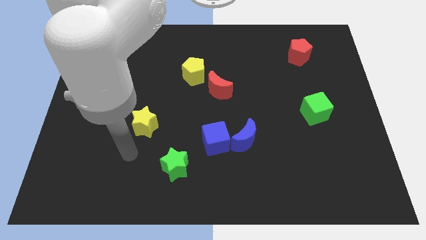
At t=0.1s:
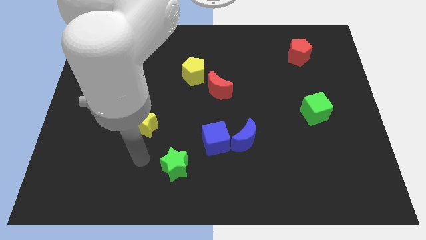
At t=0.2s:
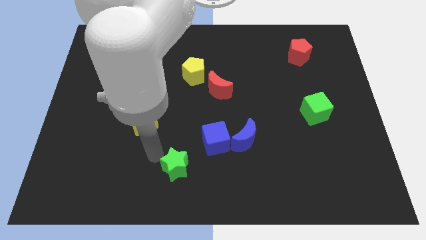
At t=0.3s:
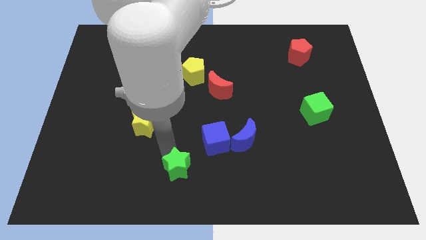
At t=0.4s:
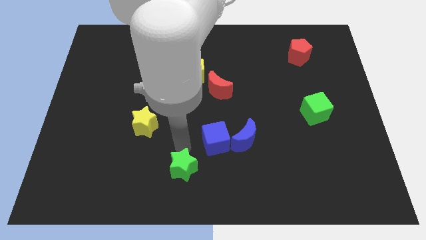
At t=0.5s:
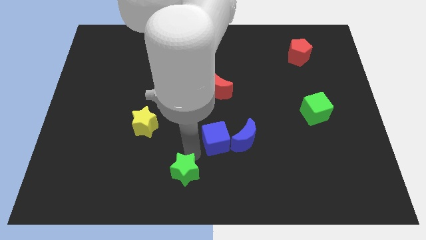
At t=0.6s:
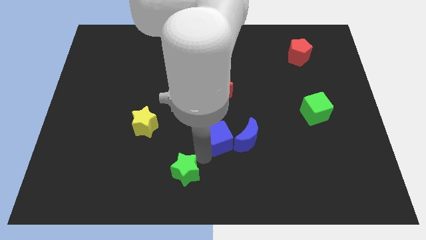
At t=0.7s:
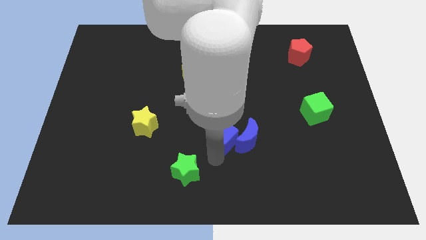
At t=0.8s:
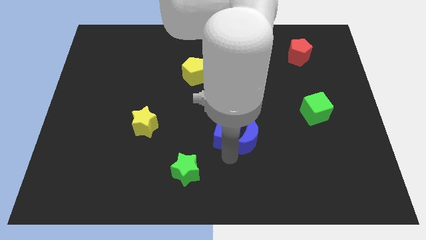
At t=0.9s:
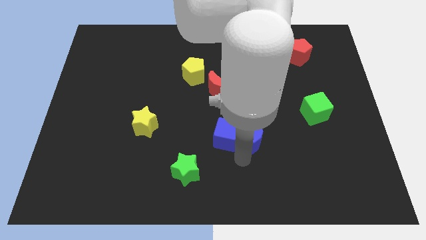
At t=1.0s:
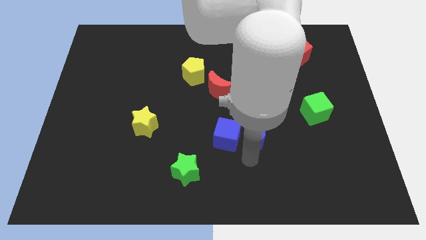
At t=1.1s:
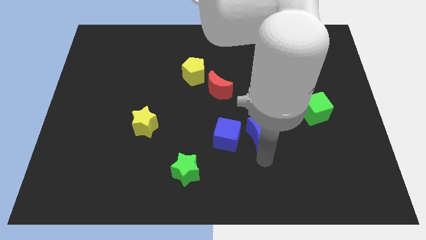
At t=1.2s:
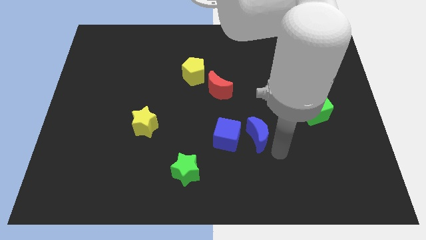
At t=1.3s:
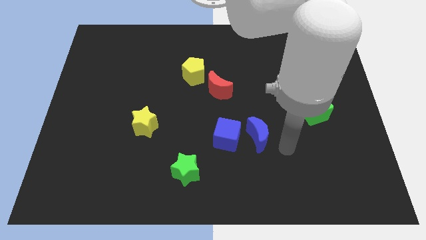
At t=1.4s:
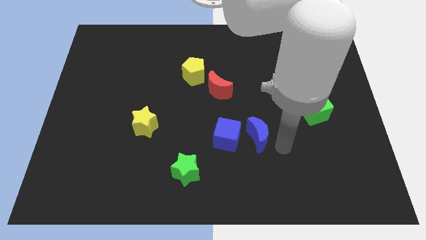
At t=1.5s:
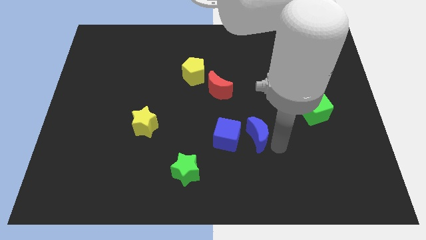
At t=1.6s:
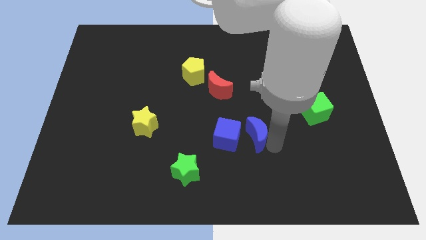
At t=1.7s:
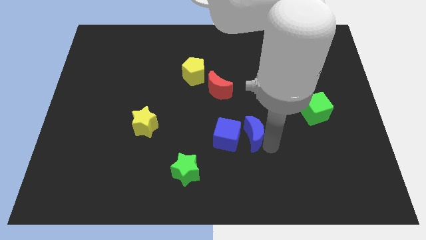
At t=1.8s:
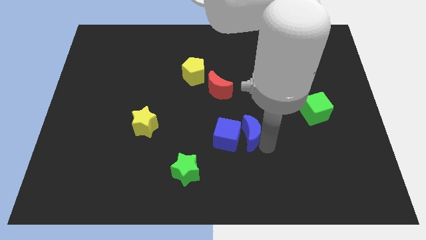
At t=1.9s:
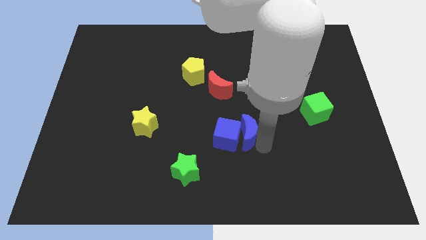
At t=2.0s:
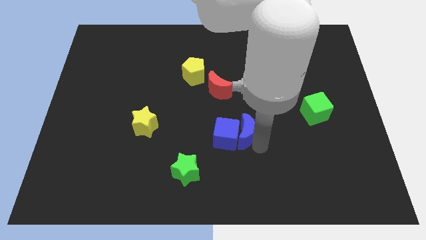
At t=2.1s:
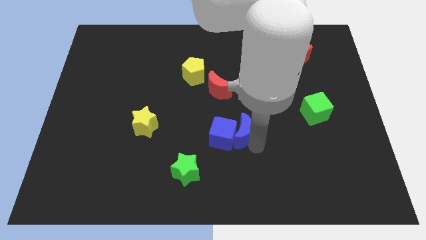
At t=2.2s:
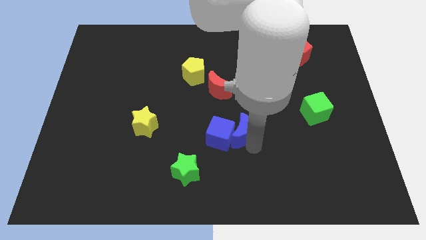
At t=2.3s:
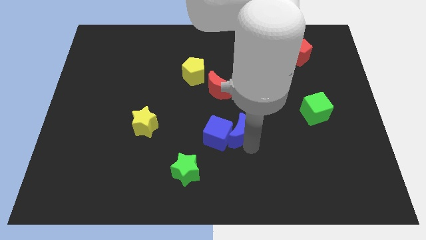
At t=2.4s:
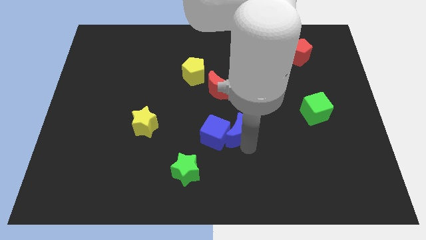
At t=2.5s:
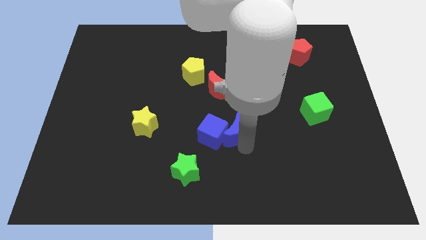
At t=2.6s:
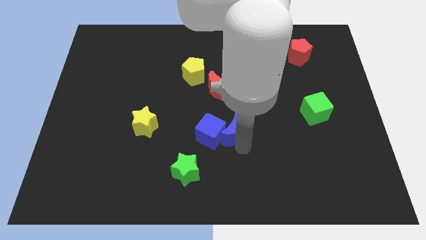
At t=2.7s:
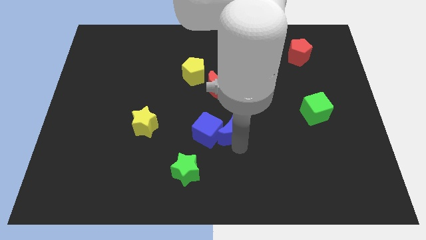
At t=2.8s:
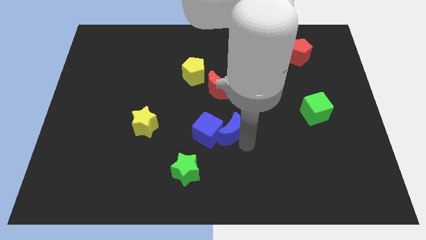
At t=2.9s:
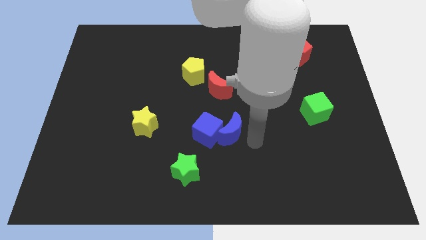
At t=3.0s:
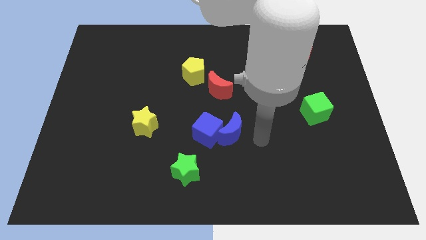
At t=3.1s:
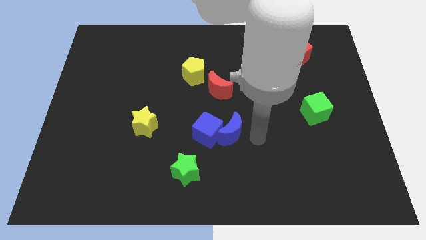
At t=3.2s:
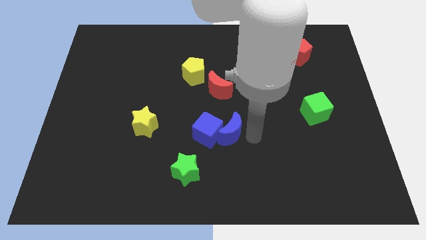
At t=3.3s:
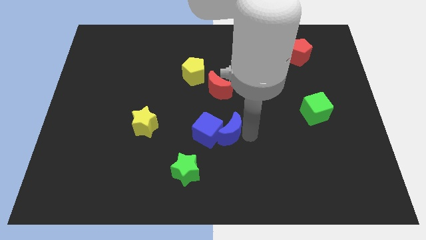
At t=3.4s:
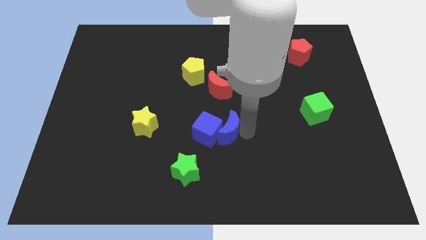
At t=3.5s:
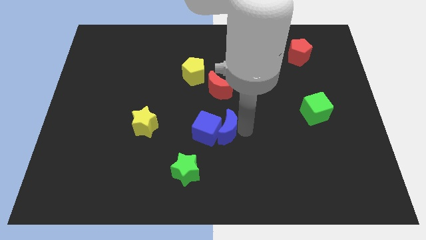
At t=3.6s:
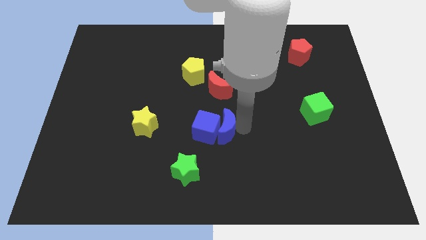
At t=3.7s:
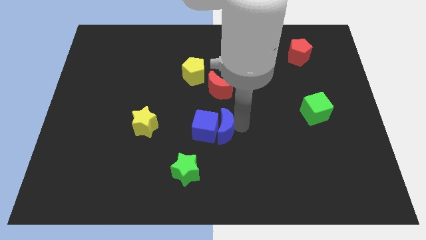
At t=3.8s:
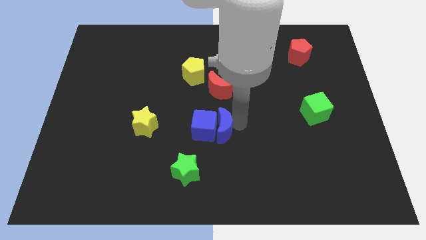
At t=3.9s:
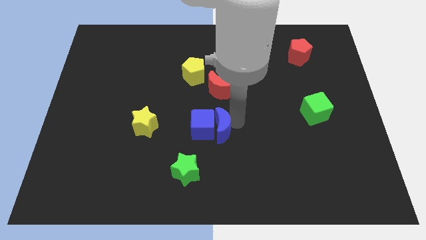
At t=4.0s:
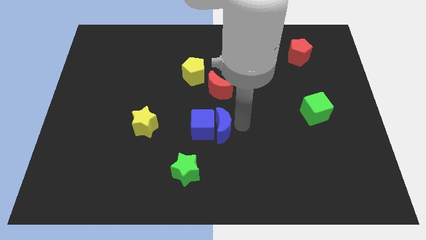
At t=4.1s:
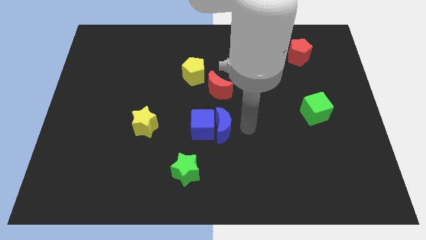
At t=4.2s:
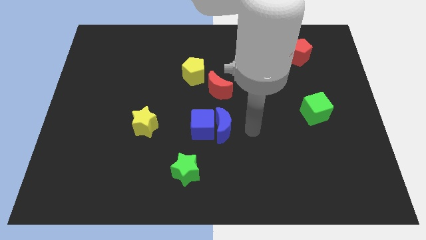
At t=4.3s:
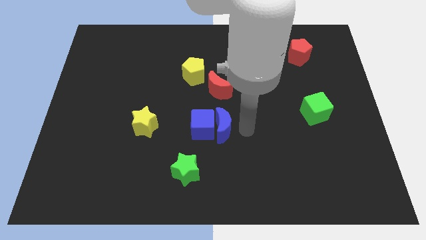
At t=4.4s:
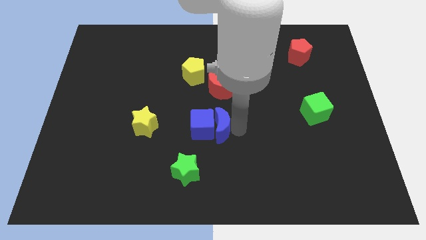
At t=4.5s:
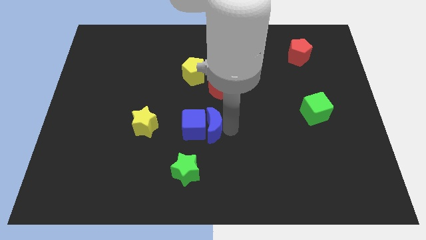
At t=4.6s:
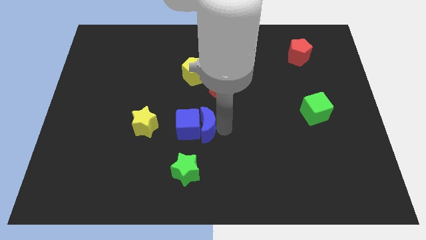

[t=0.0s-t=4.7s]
slightly push the blue moon left

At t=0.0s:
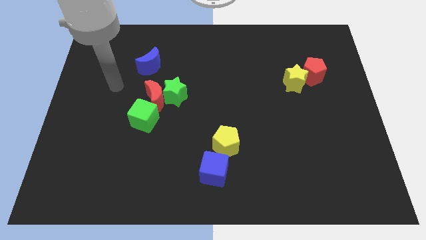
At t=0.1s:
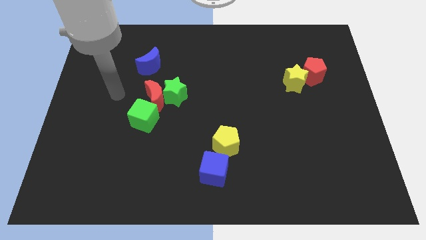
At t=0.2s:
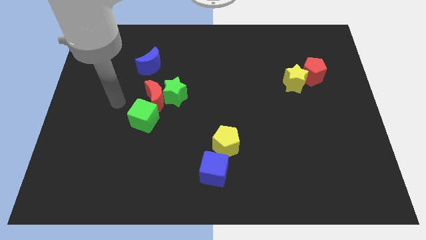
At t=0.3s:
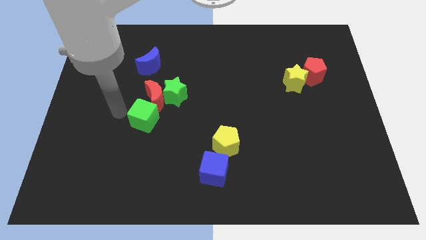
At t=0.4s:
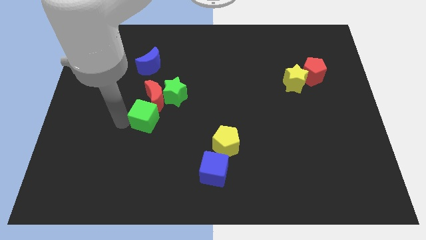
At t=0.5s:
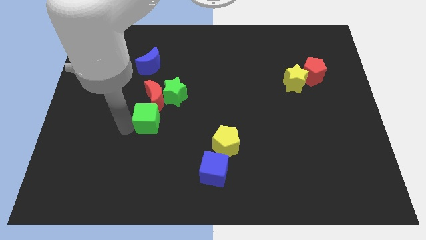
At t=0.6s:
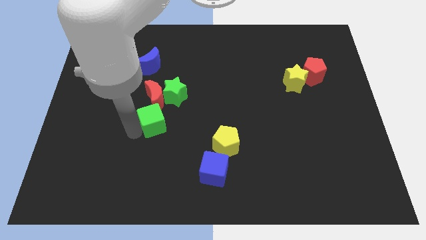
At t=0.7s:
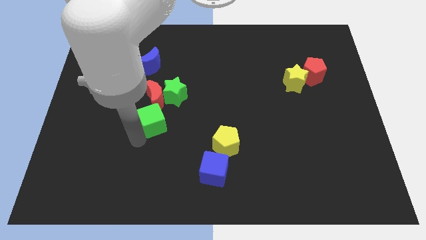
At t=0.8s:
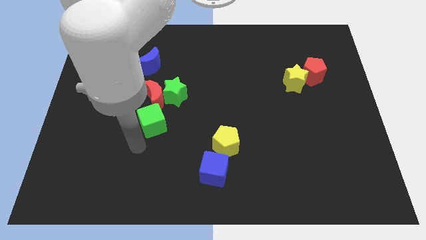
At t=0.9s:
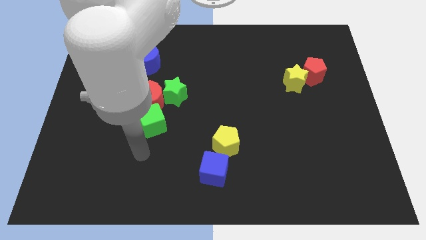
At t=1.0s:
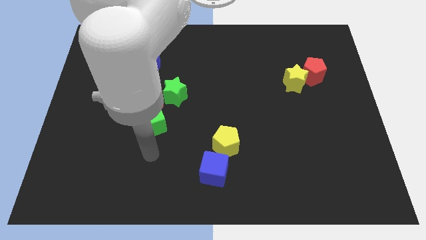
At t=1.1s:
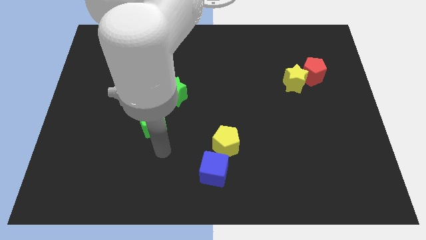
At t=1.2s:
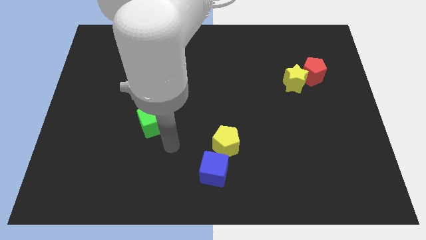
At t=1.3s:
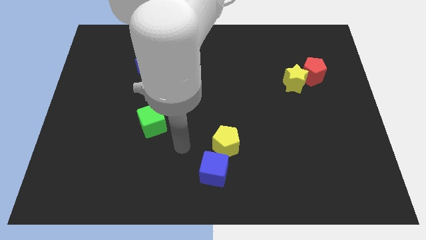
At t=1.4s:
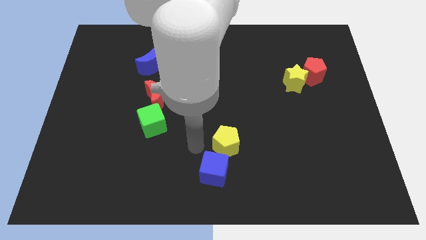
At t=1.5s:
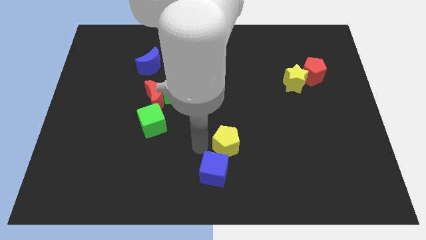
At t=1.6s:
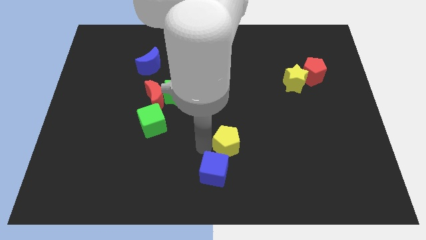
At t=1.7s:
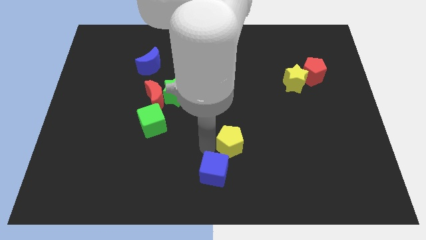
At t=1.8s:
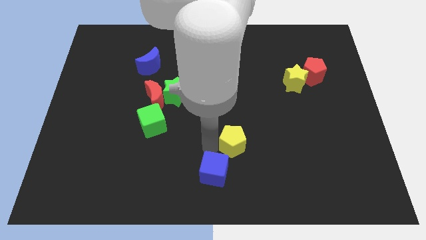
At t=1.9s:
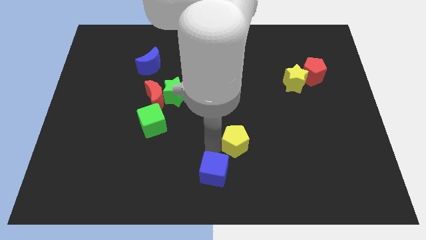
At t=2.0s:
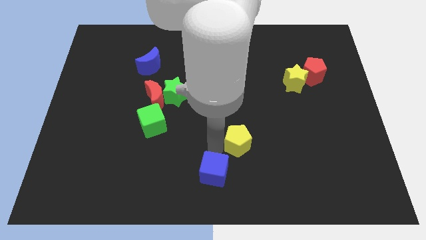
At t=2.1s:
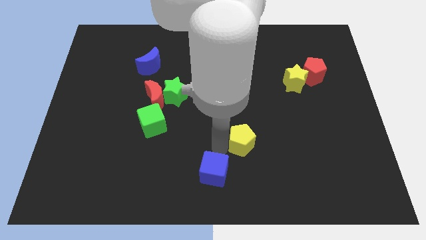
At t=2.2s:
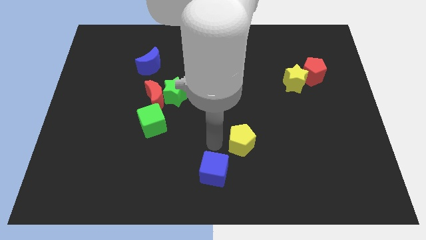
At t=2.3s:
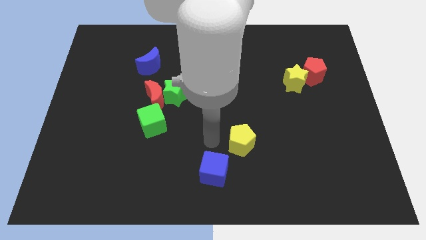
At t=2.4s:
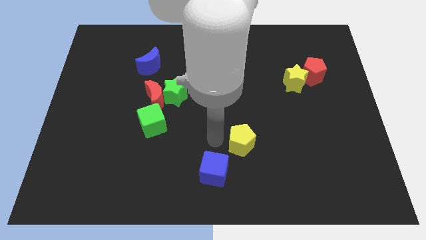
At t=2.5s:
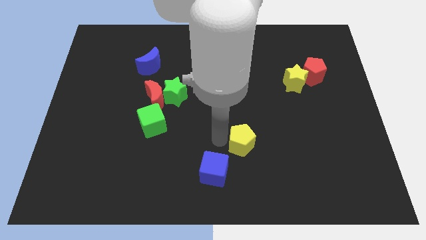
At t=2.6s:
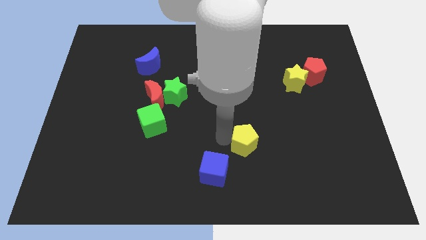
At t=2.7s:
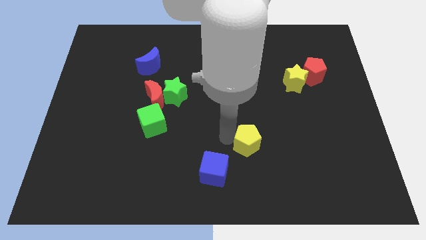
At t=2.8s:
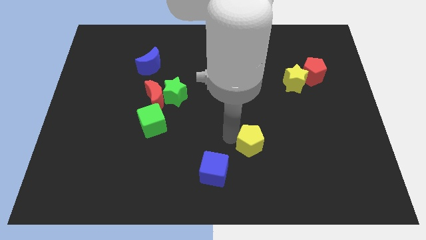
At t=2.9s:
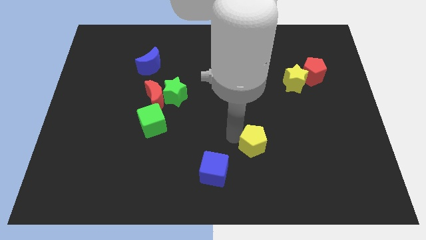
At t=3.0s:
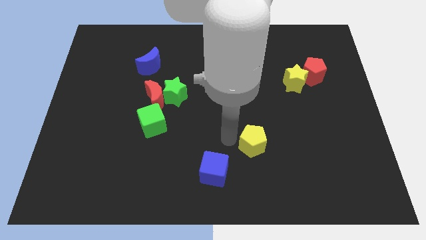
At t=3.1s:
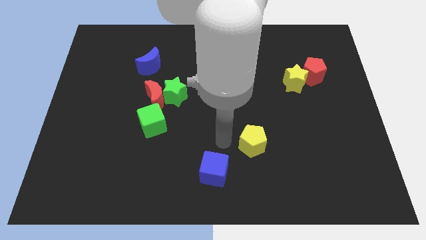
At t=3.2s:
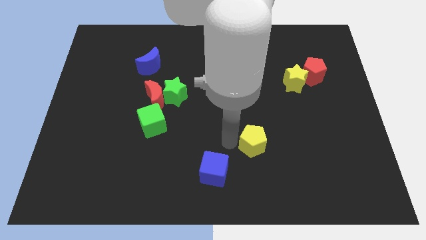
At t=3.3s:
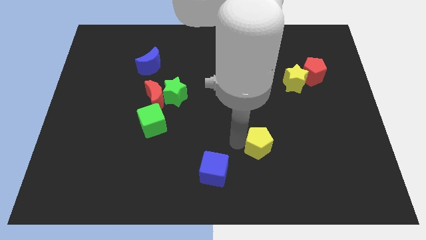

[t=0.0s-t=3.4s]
slide the yellow pentagon somewhat right

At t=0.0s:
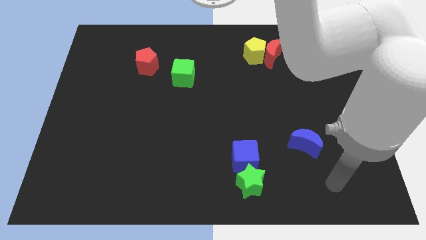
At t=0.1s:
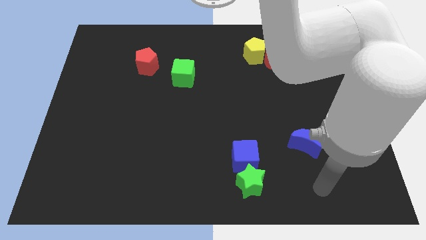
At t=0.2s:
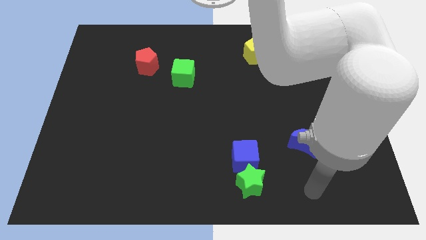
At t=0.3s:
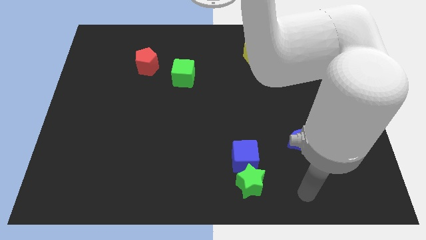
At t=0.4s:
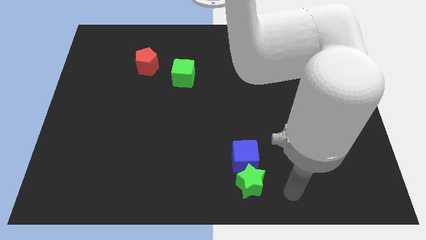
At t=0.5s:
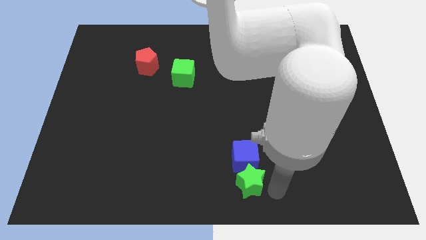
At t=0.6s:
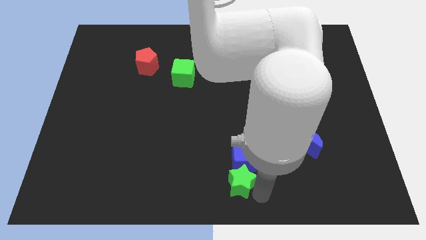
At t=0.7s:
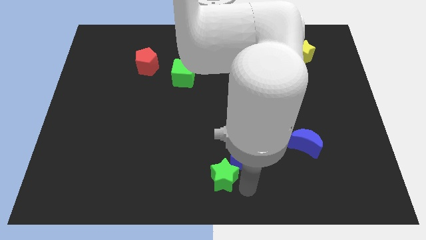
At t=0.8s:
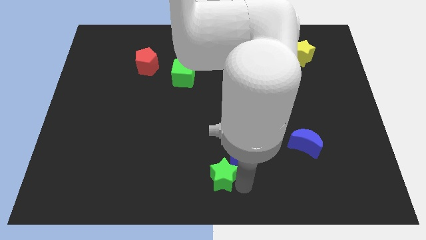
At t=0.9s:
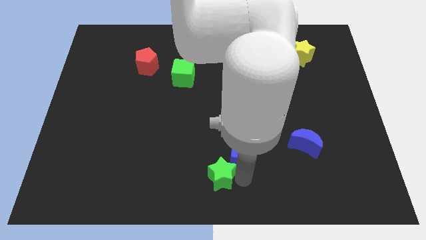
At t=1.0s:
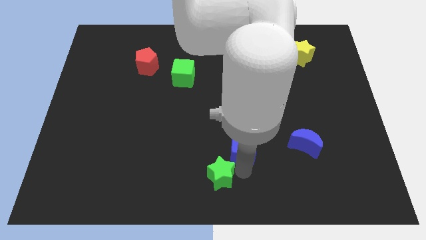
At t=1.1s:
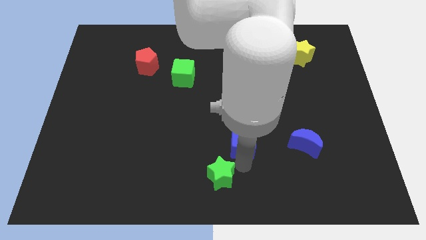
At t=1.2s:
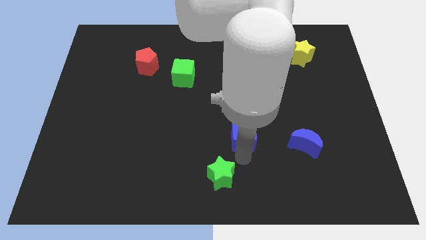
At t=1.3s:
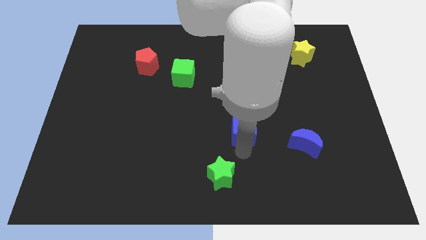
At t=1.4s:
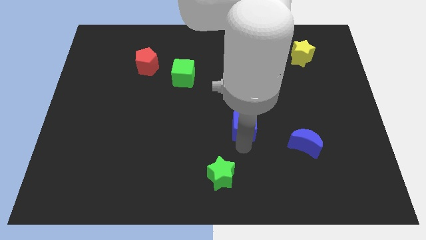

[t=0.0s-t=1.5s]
move the blue cube somewhat up
